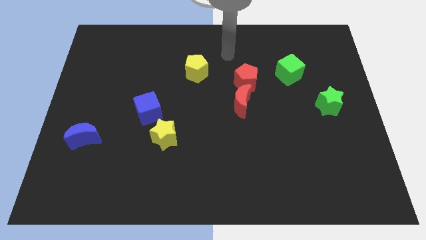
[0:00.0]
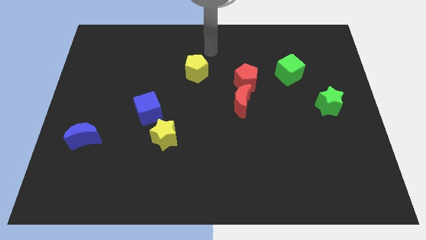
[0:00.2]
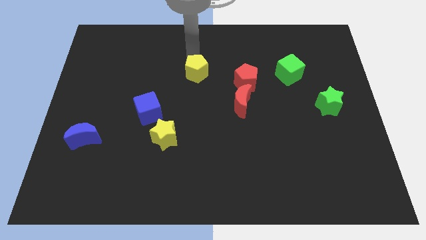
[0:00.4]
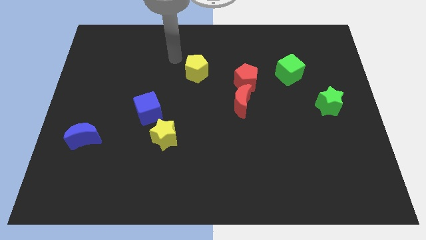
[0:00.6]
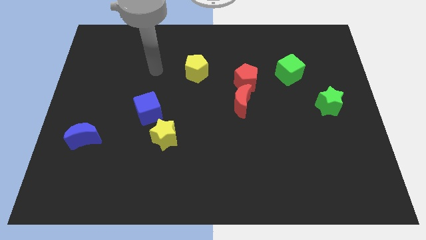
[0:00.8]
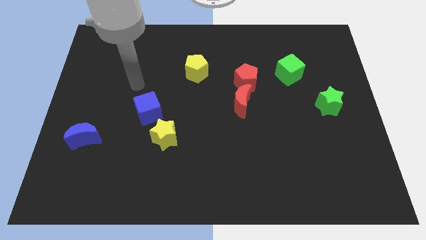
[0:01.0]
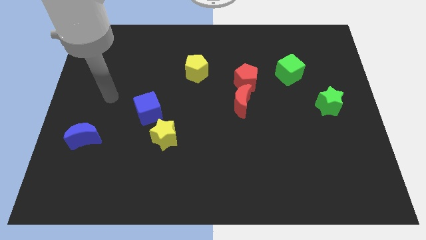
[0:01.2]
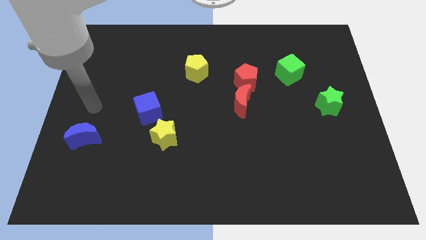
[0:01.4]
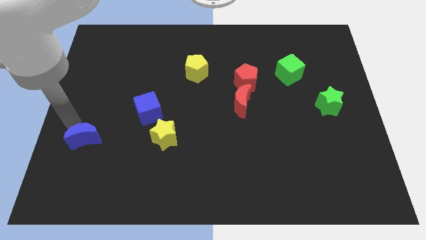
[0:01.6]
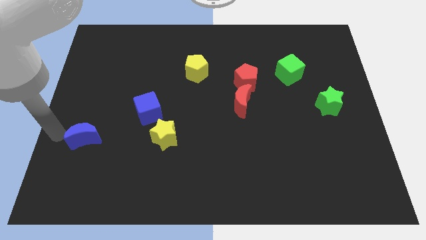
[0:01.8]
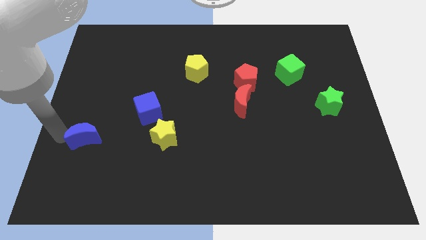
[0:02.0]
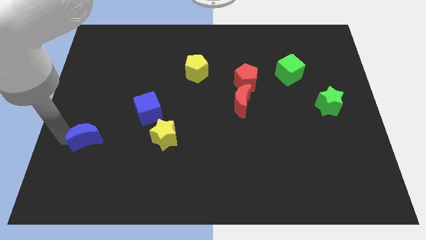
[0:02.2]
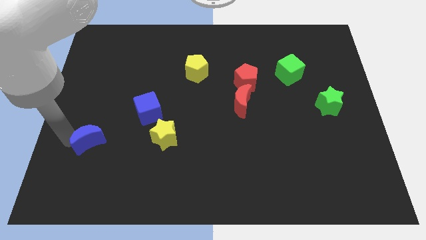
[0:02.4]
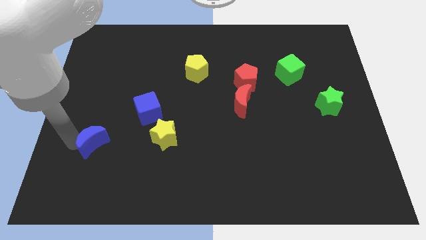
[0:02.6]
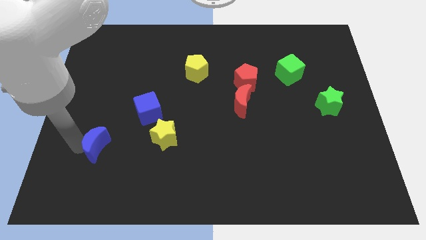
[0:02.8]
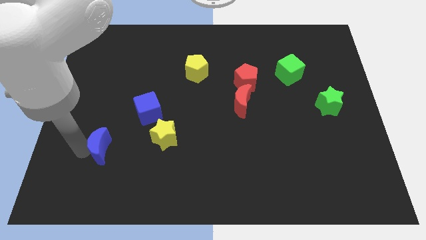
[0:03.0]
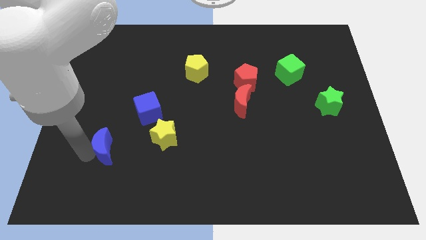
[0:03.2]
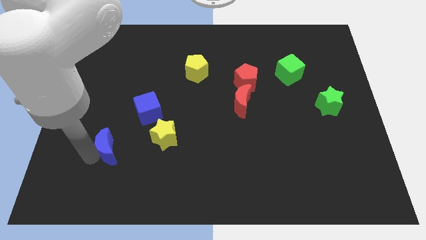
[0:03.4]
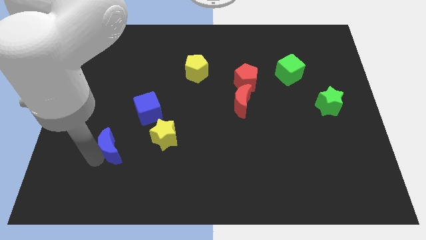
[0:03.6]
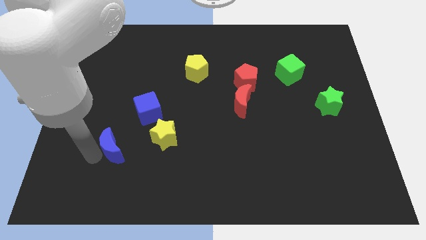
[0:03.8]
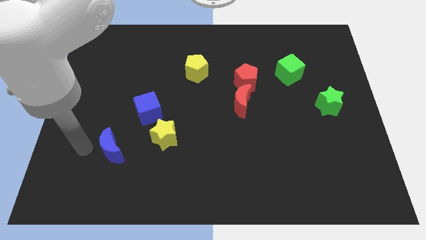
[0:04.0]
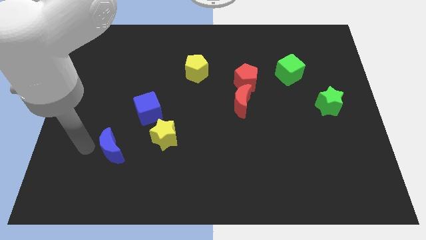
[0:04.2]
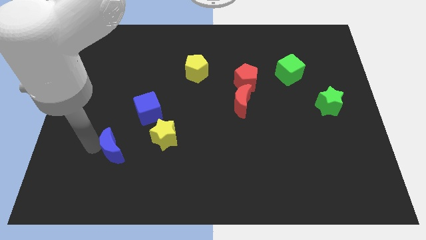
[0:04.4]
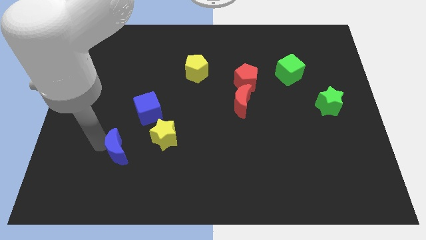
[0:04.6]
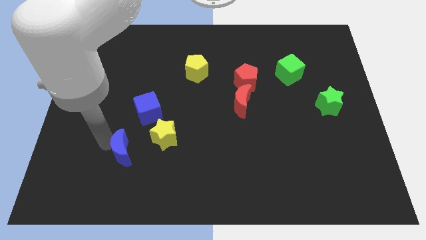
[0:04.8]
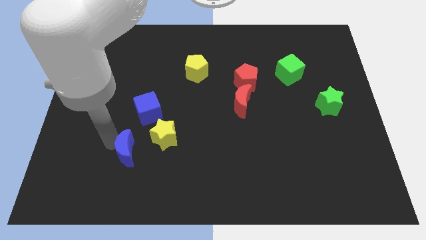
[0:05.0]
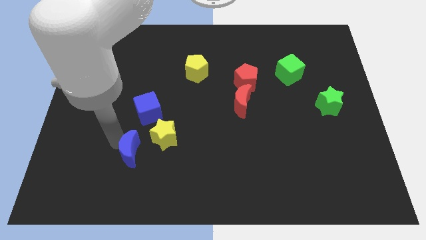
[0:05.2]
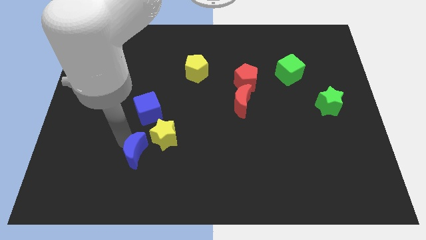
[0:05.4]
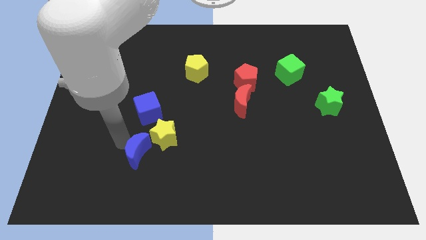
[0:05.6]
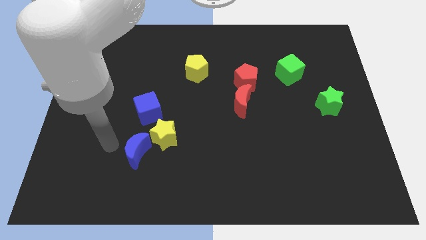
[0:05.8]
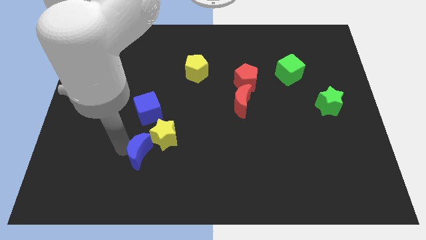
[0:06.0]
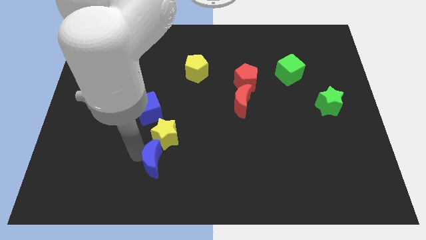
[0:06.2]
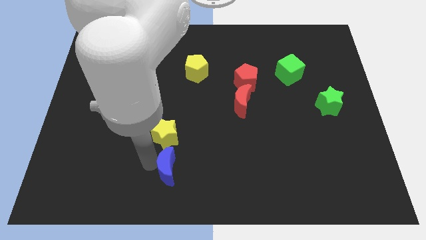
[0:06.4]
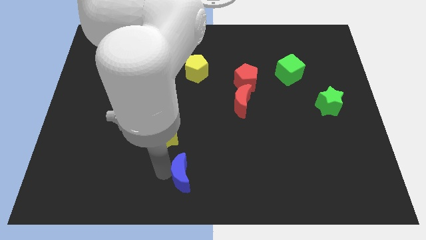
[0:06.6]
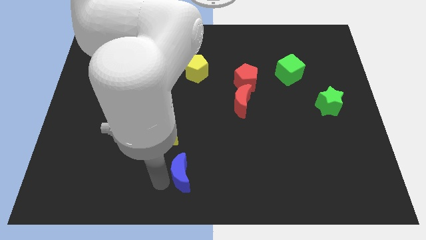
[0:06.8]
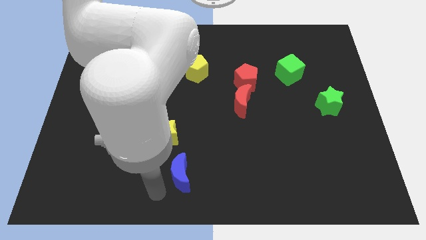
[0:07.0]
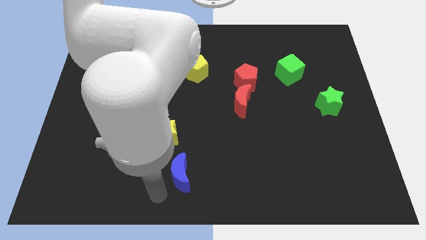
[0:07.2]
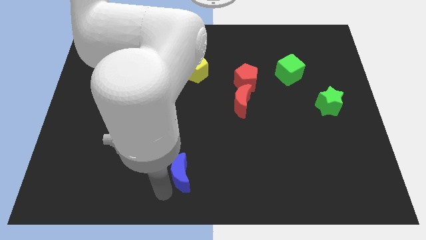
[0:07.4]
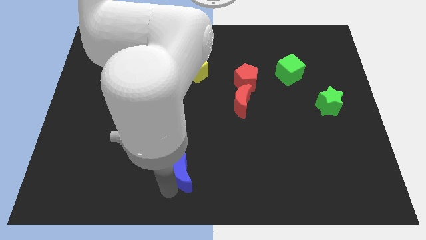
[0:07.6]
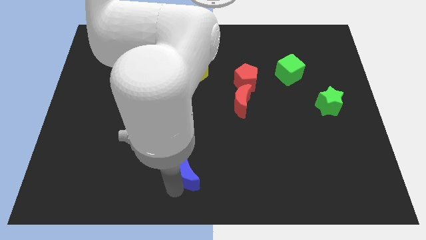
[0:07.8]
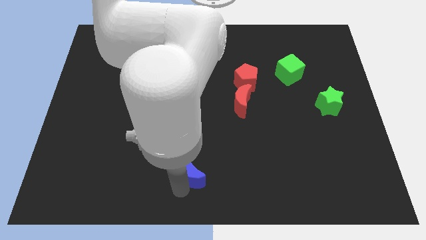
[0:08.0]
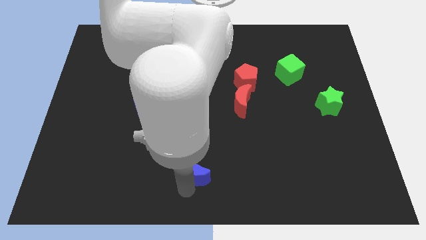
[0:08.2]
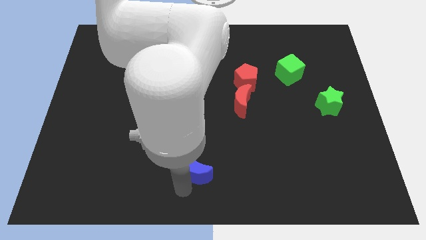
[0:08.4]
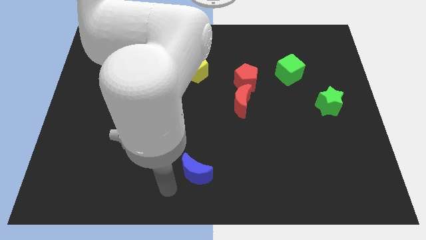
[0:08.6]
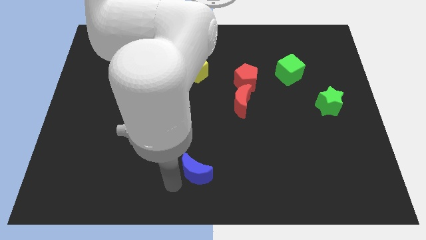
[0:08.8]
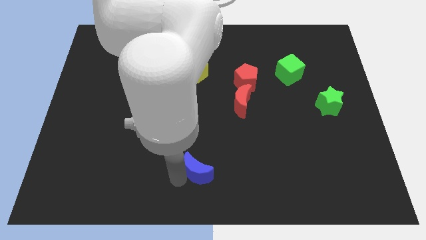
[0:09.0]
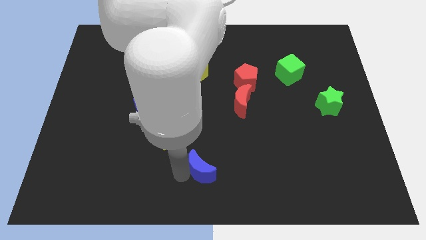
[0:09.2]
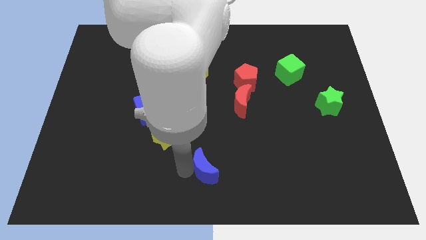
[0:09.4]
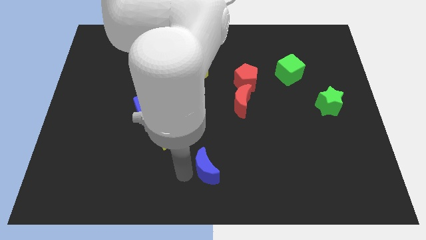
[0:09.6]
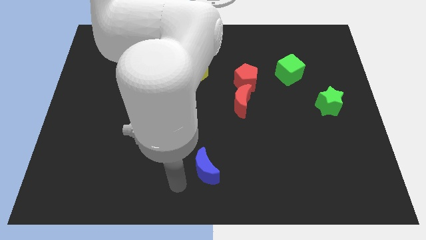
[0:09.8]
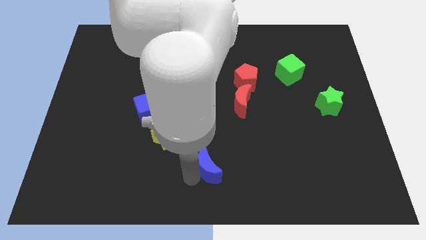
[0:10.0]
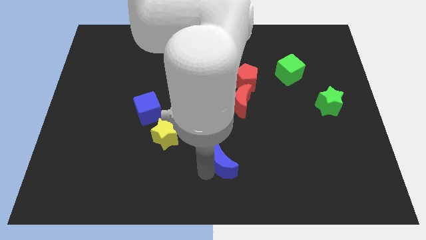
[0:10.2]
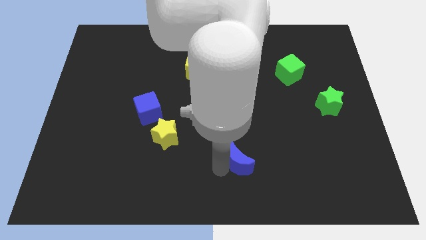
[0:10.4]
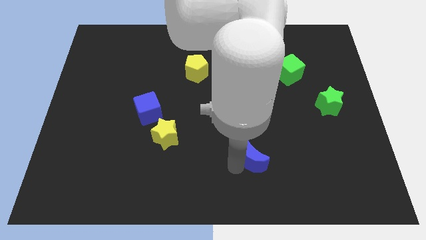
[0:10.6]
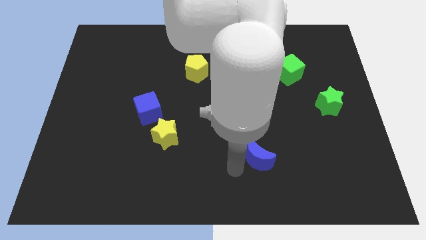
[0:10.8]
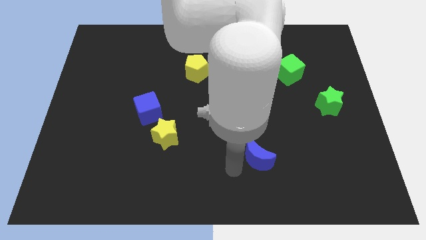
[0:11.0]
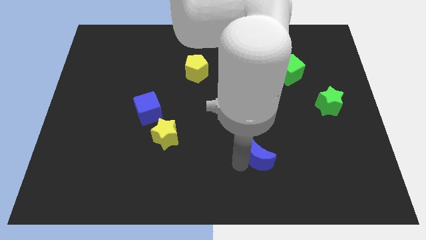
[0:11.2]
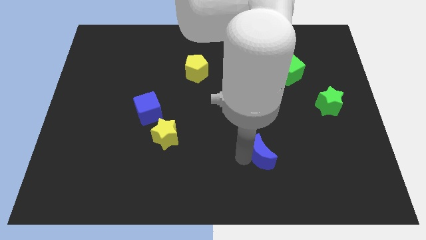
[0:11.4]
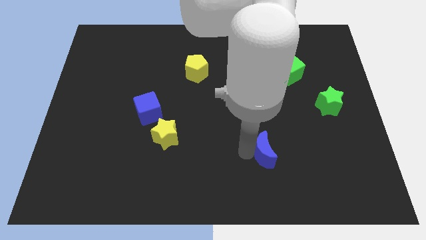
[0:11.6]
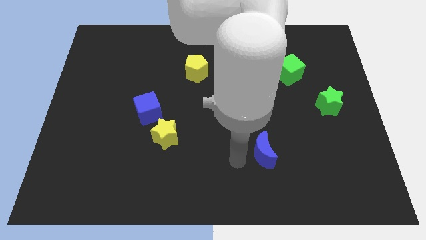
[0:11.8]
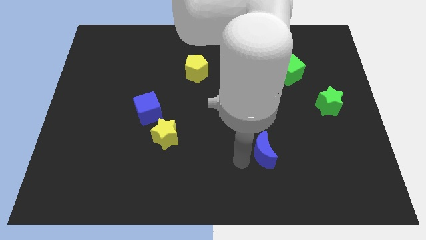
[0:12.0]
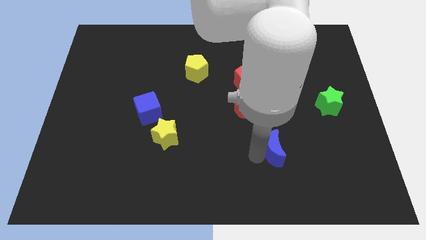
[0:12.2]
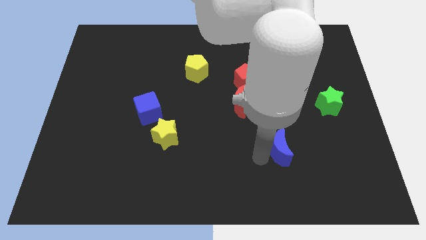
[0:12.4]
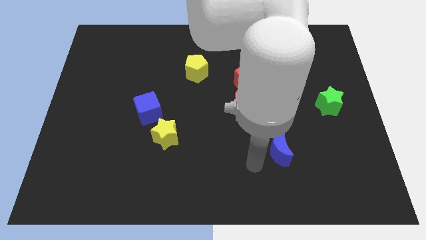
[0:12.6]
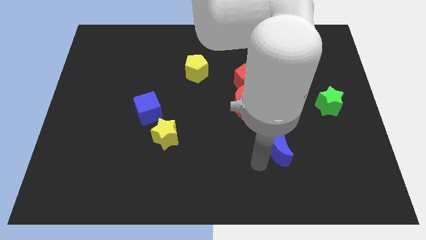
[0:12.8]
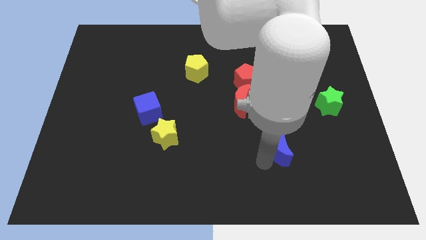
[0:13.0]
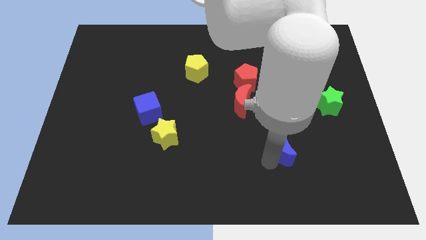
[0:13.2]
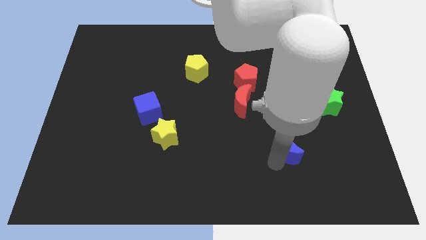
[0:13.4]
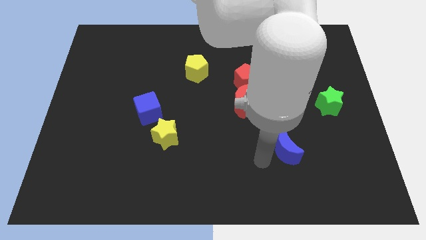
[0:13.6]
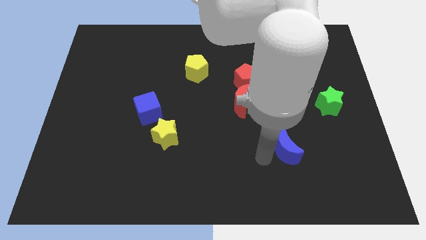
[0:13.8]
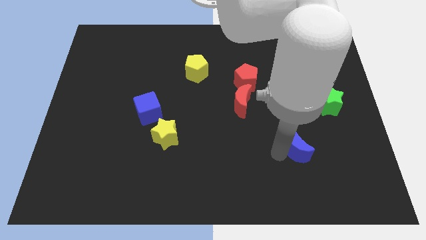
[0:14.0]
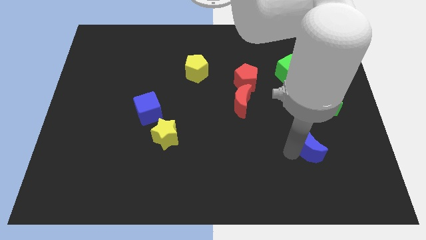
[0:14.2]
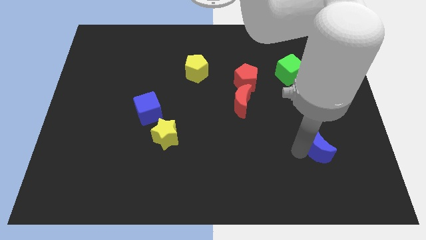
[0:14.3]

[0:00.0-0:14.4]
slide the blue moon to the bottom side of the green star
